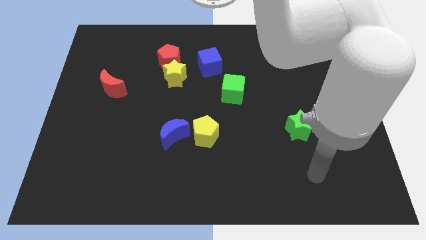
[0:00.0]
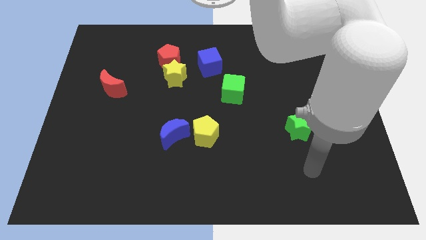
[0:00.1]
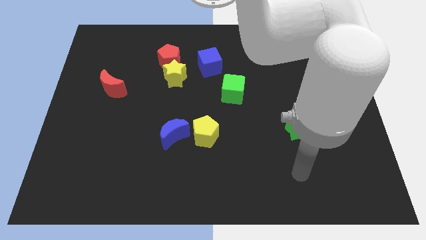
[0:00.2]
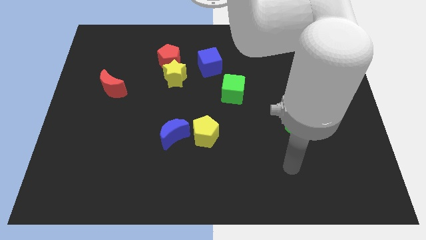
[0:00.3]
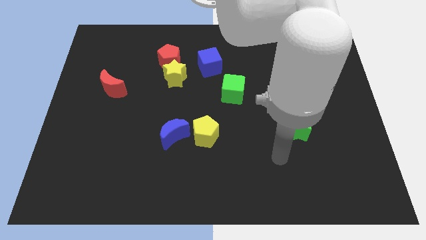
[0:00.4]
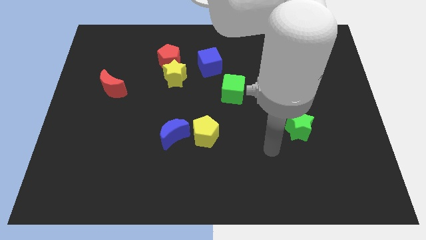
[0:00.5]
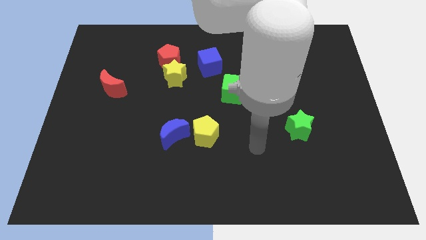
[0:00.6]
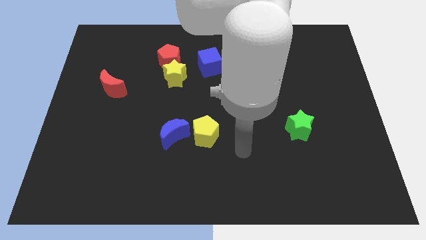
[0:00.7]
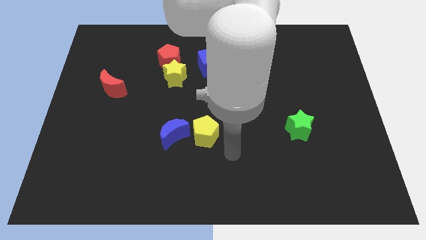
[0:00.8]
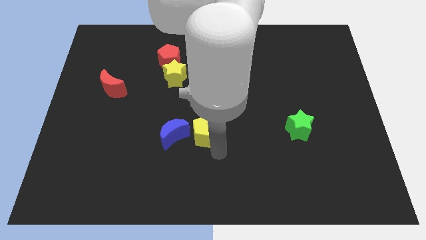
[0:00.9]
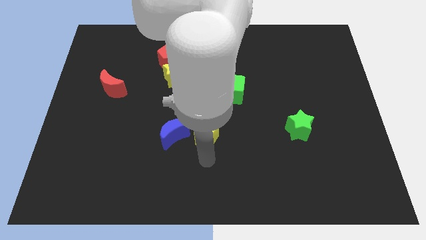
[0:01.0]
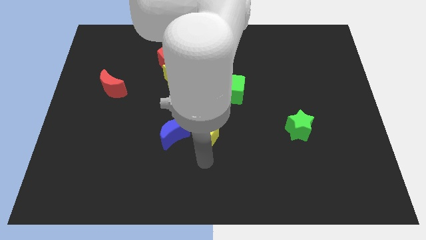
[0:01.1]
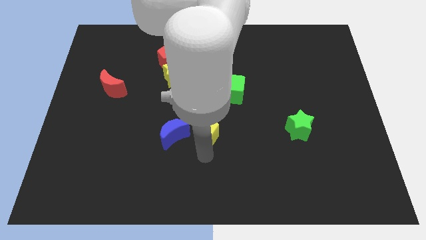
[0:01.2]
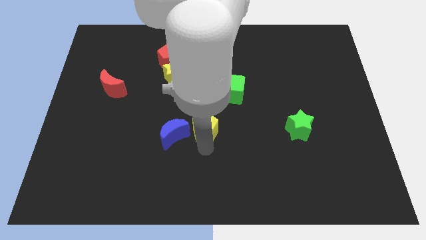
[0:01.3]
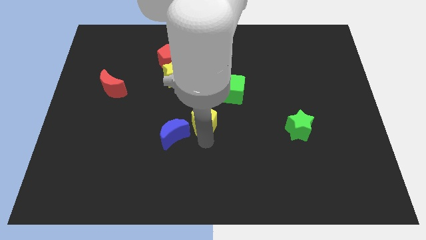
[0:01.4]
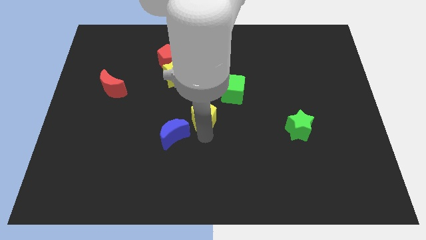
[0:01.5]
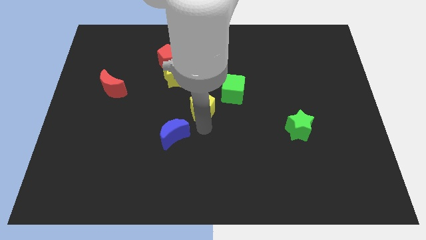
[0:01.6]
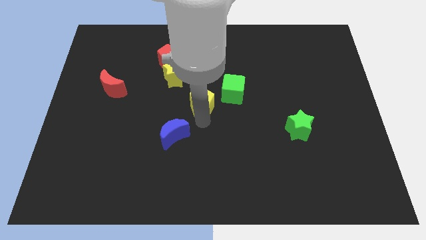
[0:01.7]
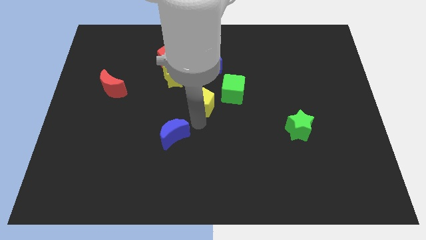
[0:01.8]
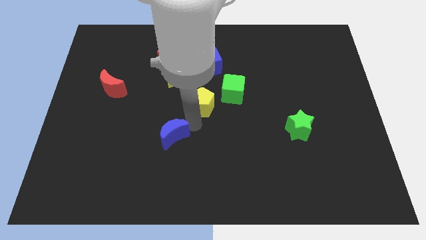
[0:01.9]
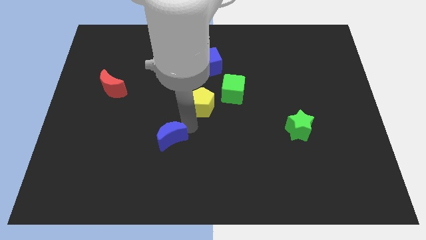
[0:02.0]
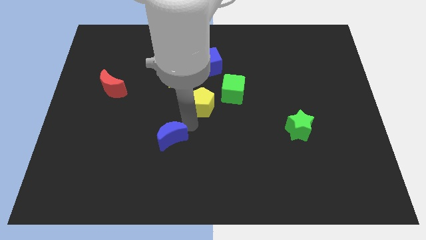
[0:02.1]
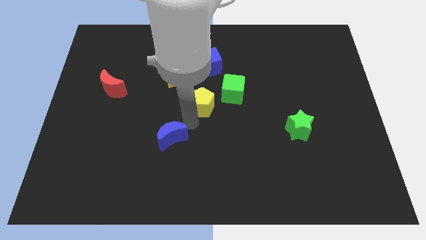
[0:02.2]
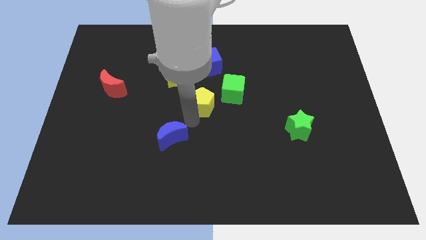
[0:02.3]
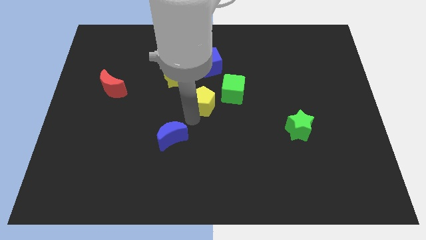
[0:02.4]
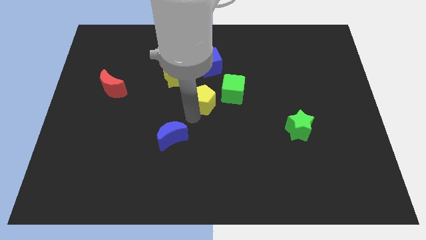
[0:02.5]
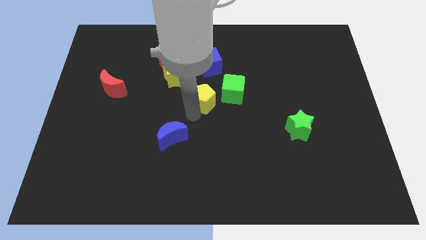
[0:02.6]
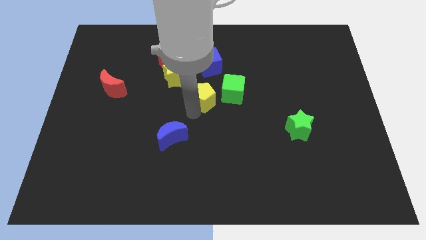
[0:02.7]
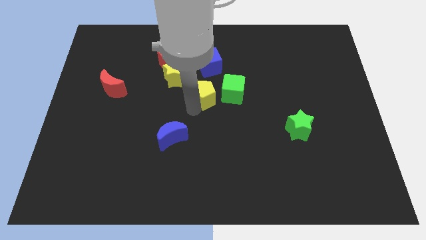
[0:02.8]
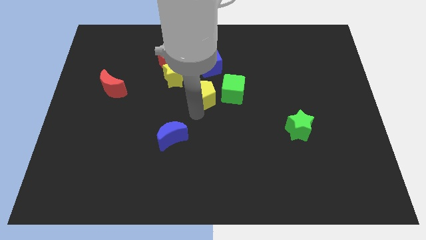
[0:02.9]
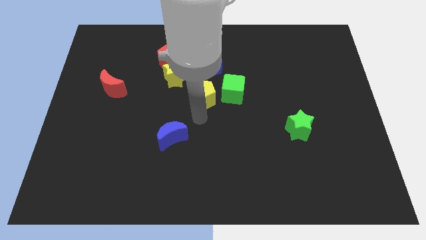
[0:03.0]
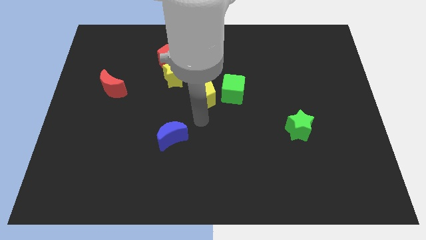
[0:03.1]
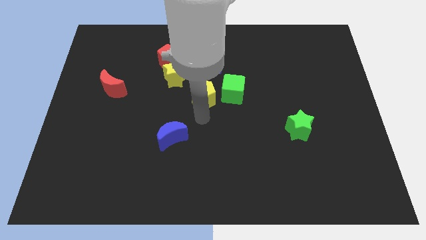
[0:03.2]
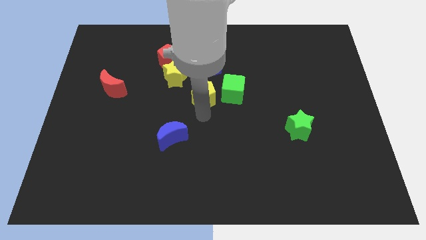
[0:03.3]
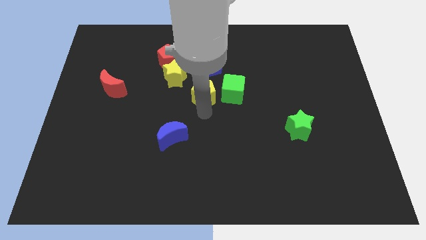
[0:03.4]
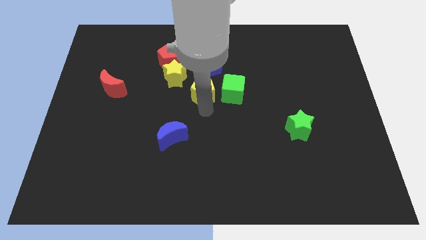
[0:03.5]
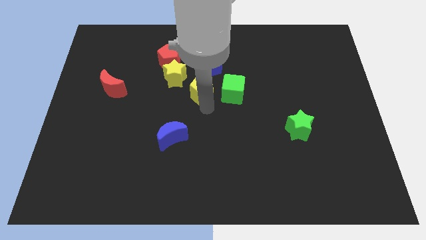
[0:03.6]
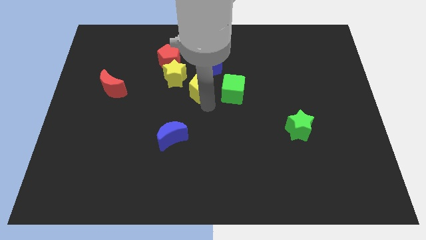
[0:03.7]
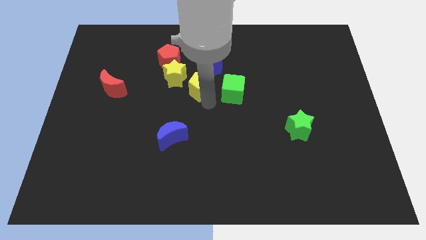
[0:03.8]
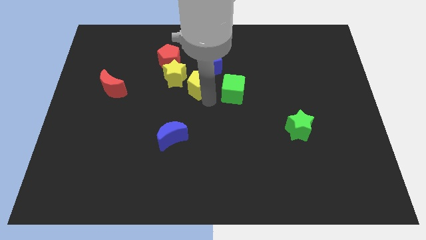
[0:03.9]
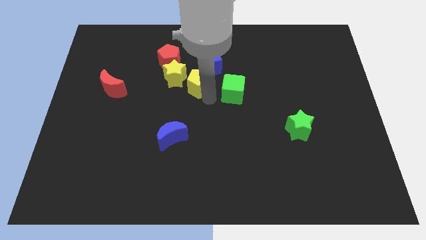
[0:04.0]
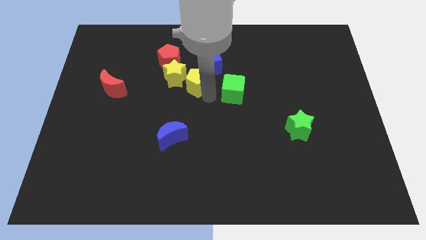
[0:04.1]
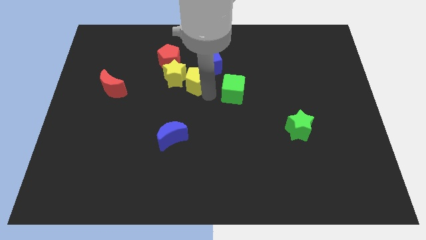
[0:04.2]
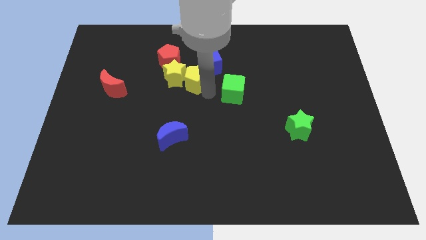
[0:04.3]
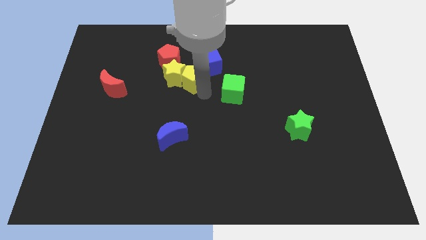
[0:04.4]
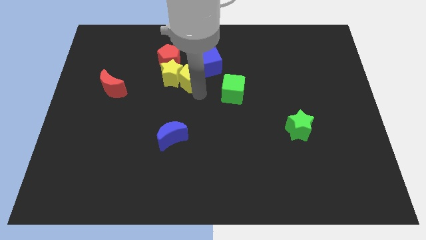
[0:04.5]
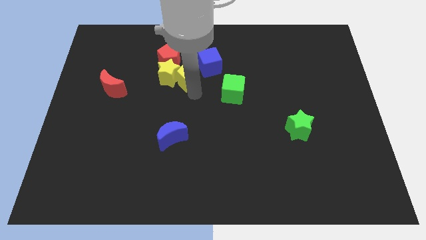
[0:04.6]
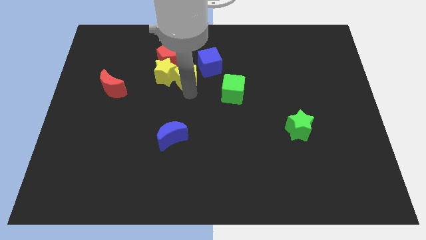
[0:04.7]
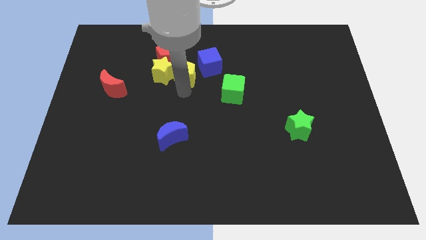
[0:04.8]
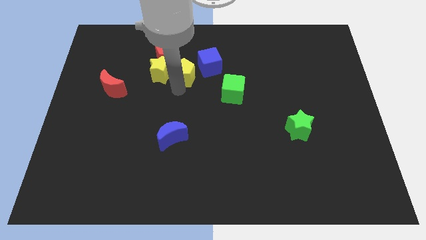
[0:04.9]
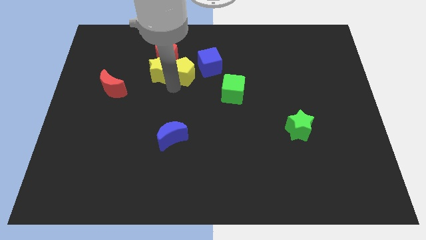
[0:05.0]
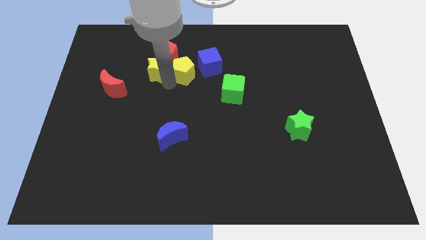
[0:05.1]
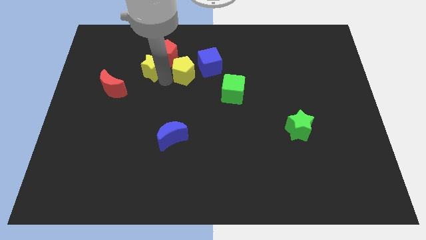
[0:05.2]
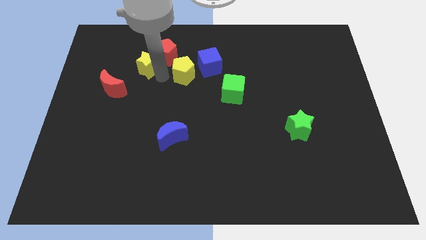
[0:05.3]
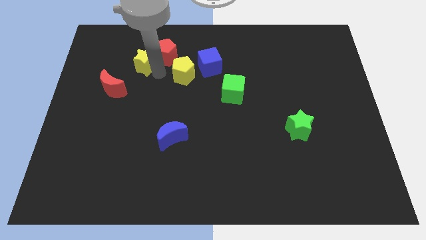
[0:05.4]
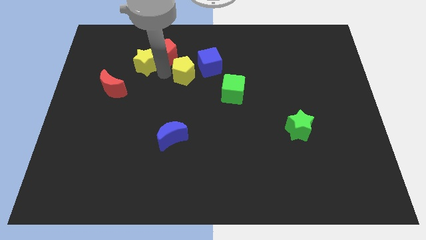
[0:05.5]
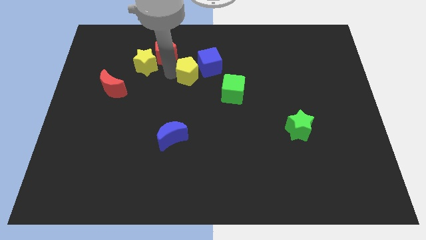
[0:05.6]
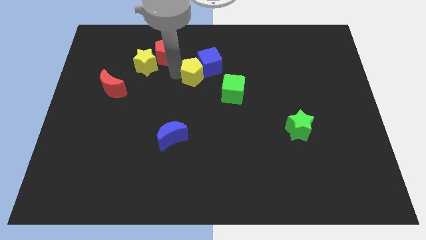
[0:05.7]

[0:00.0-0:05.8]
move the yellow pentagon next to the blue cube

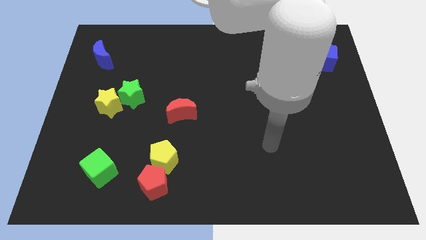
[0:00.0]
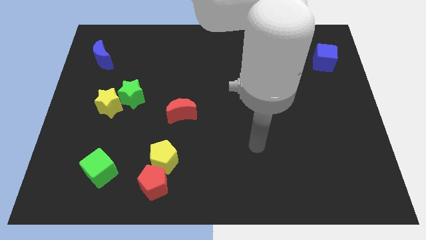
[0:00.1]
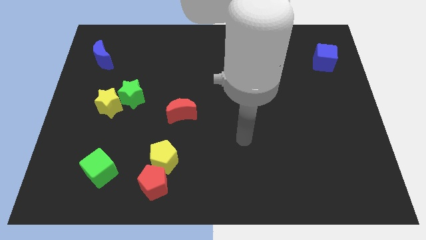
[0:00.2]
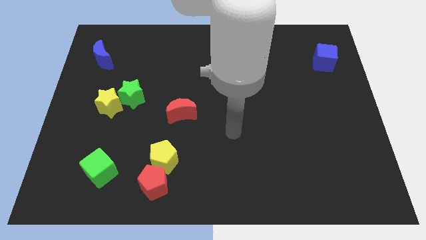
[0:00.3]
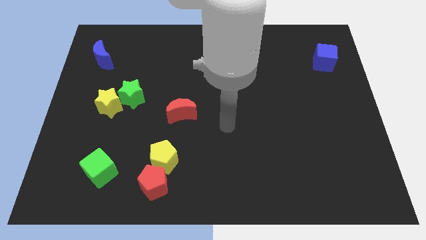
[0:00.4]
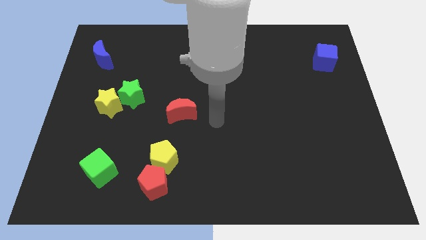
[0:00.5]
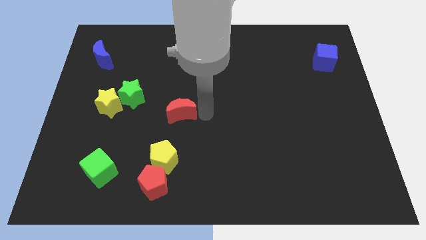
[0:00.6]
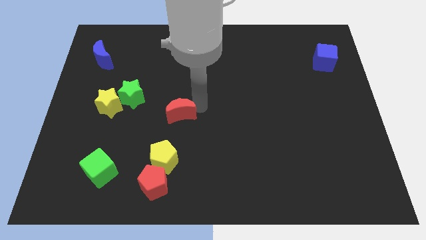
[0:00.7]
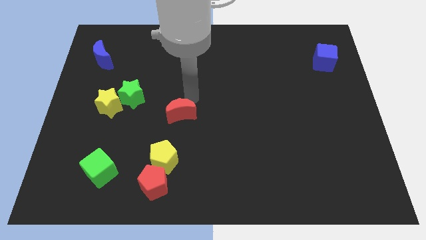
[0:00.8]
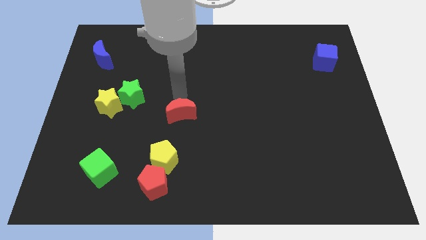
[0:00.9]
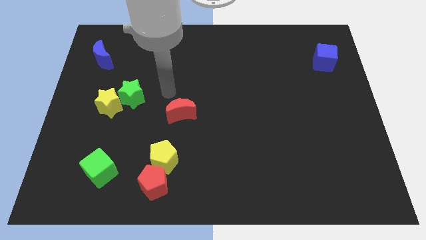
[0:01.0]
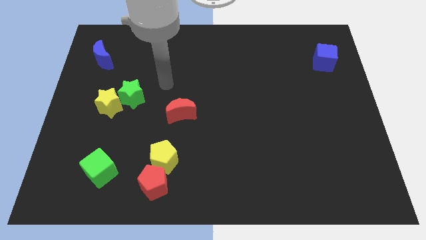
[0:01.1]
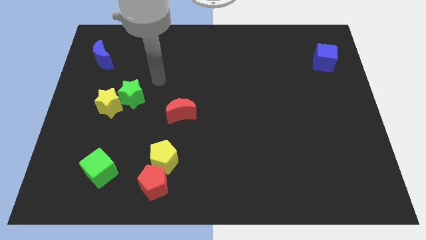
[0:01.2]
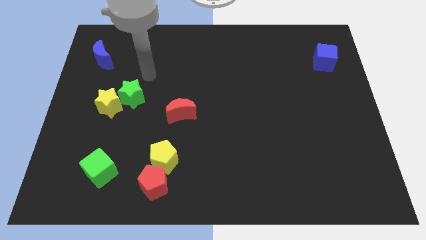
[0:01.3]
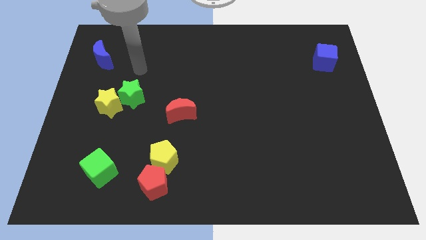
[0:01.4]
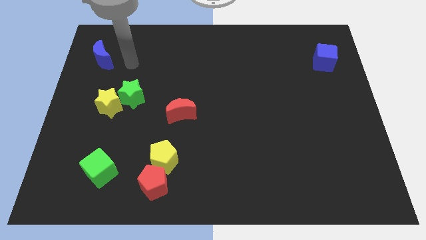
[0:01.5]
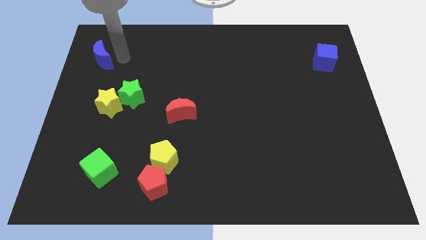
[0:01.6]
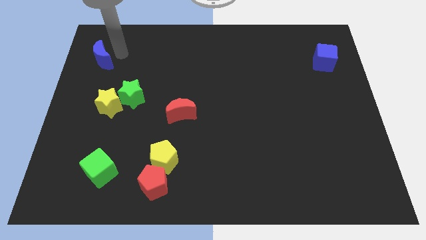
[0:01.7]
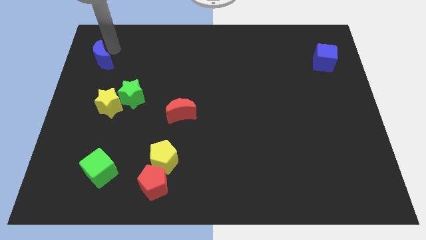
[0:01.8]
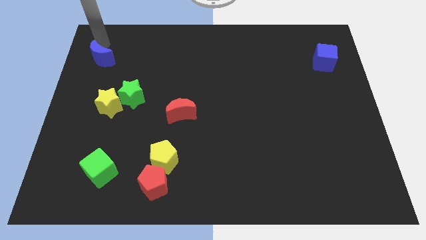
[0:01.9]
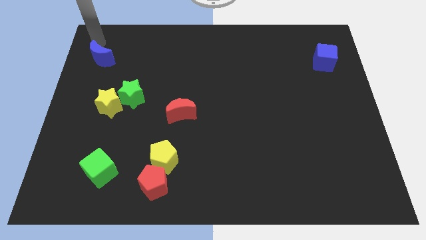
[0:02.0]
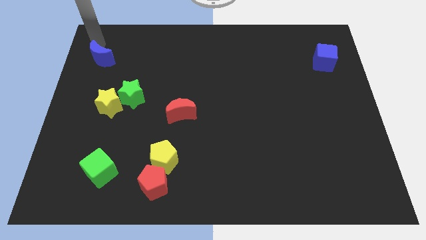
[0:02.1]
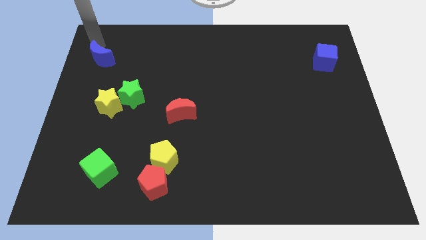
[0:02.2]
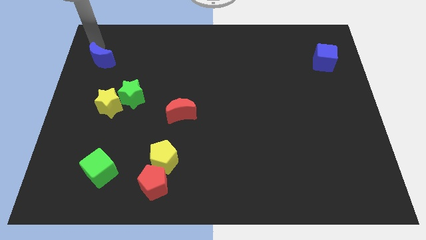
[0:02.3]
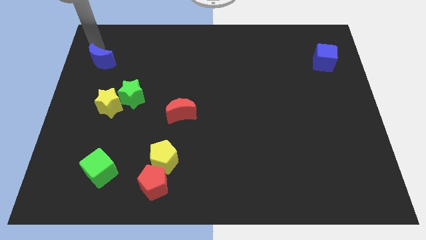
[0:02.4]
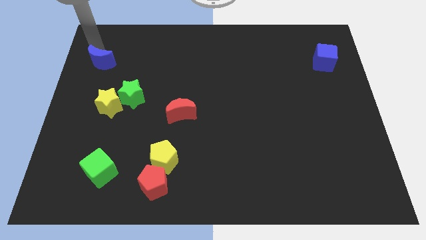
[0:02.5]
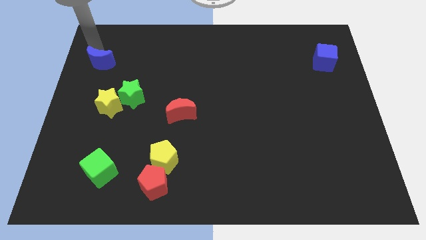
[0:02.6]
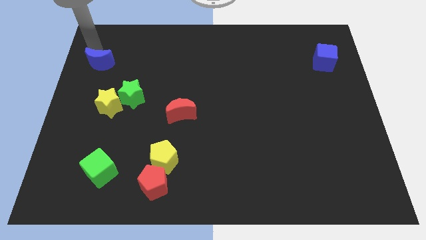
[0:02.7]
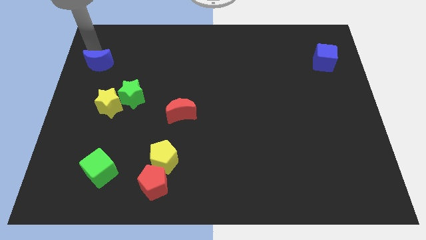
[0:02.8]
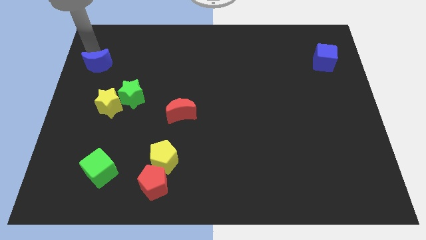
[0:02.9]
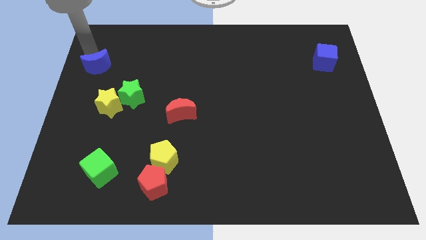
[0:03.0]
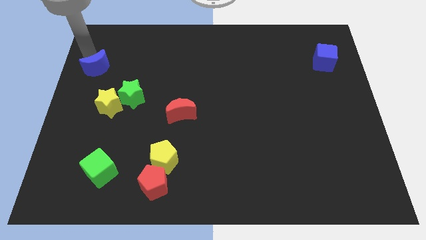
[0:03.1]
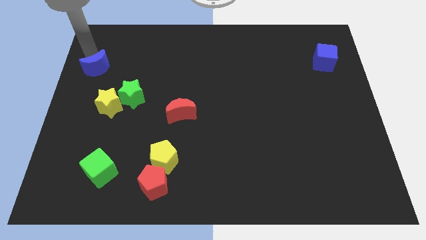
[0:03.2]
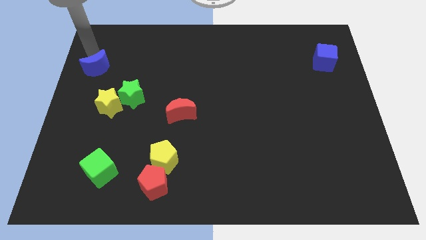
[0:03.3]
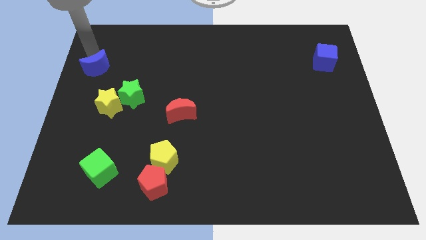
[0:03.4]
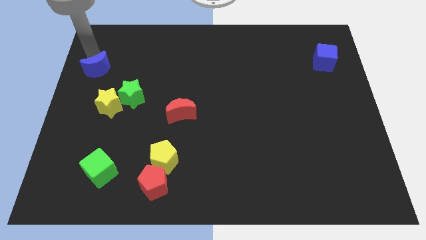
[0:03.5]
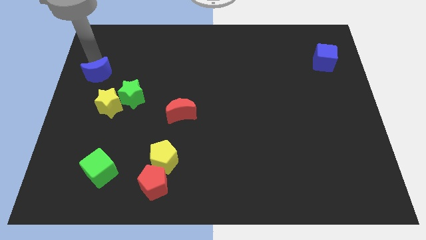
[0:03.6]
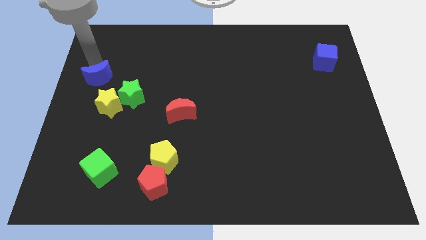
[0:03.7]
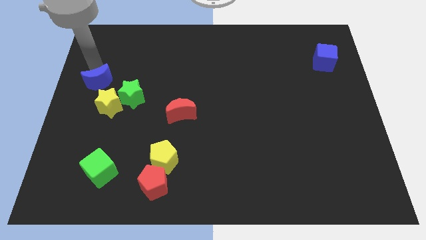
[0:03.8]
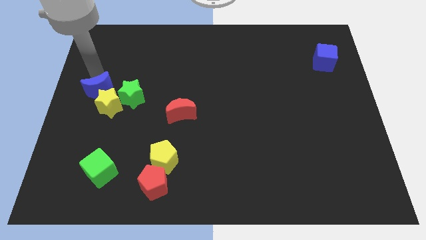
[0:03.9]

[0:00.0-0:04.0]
push the blue moon next to the yellow star
